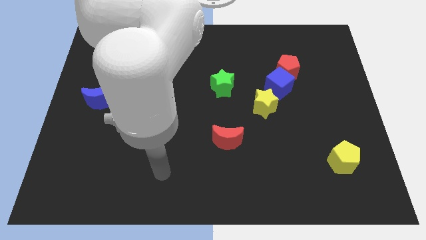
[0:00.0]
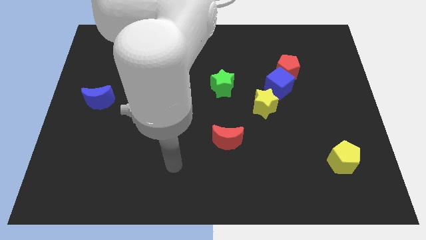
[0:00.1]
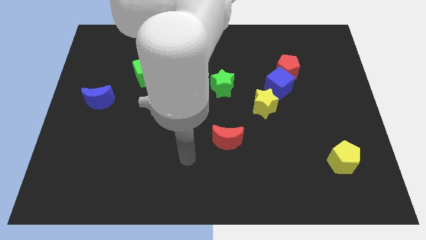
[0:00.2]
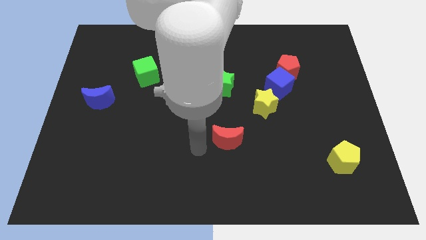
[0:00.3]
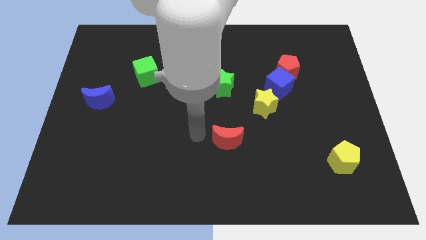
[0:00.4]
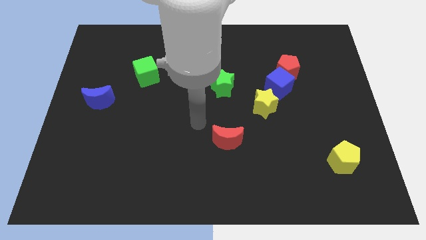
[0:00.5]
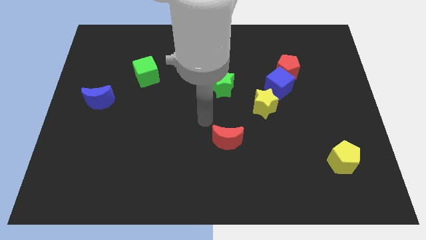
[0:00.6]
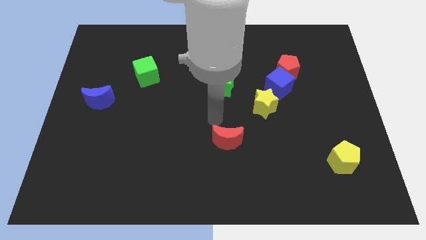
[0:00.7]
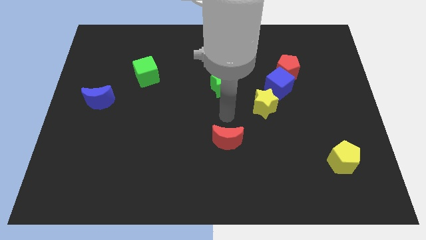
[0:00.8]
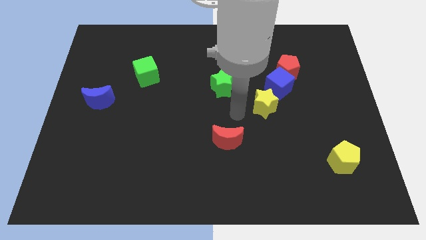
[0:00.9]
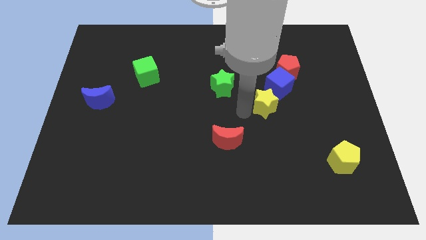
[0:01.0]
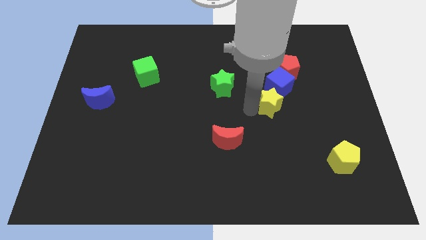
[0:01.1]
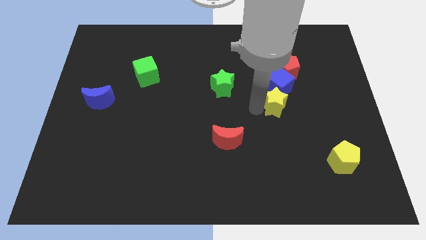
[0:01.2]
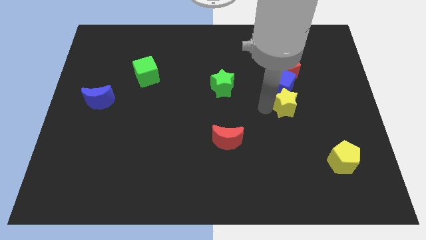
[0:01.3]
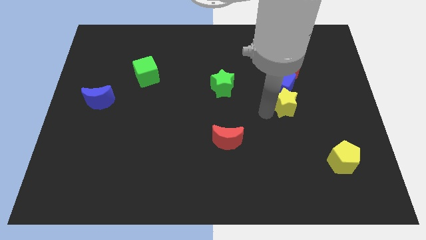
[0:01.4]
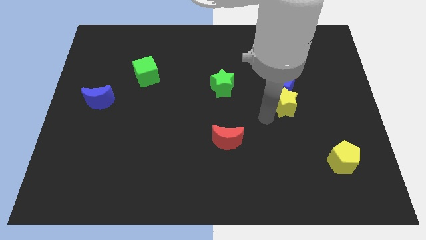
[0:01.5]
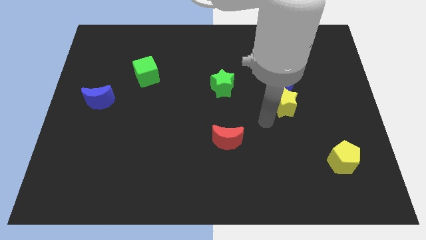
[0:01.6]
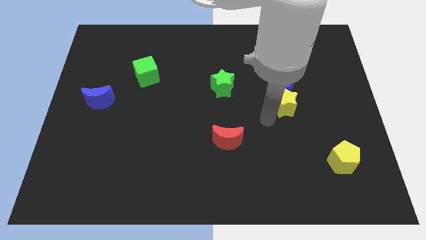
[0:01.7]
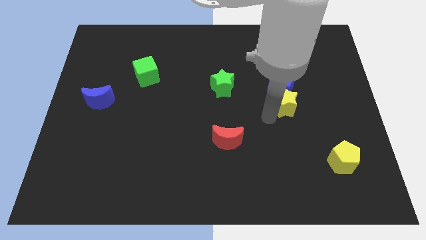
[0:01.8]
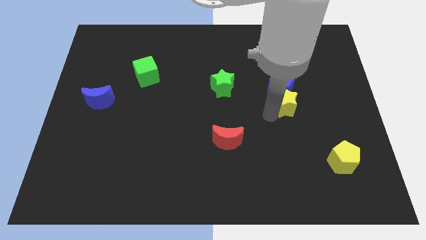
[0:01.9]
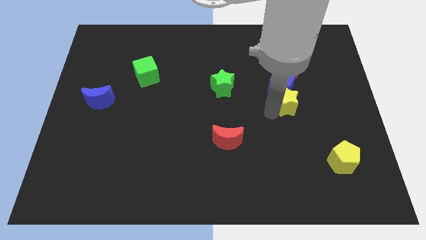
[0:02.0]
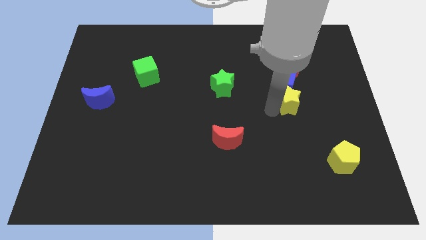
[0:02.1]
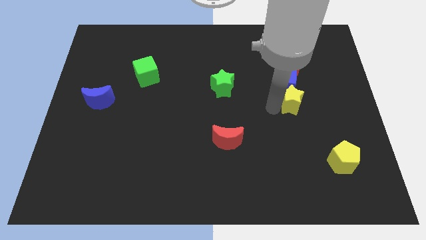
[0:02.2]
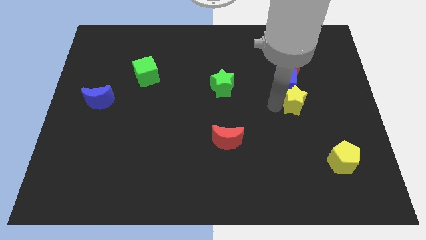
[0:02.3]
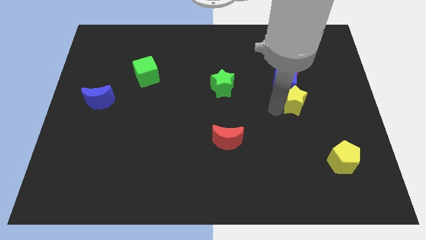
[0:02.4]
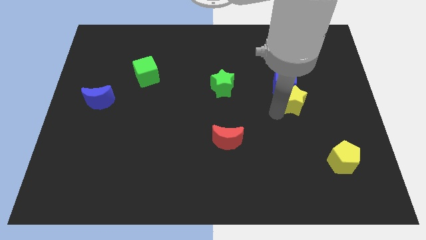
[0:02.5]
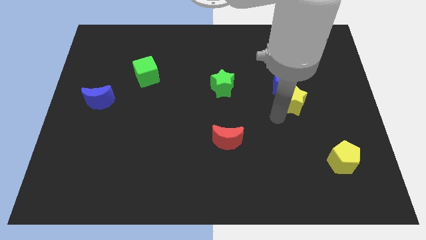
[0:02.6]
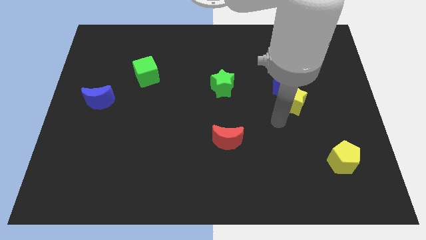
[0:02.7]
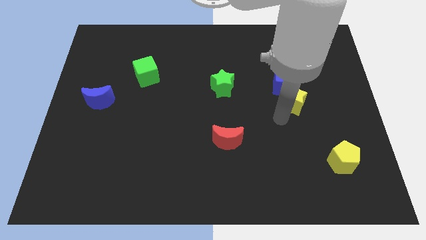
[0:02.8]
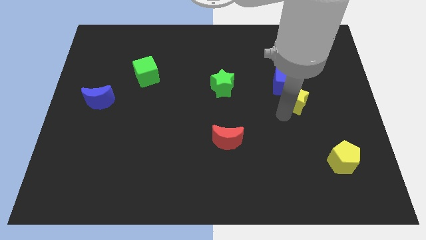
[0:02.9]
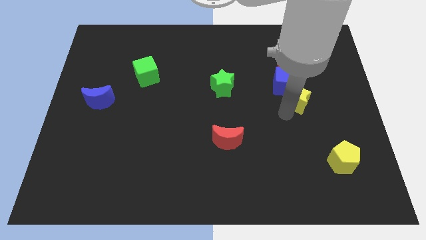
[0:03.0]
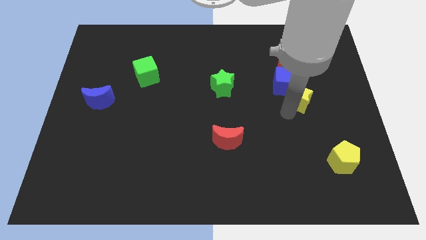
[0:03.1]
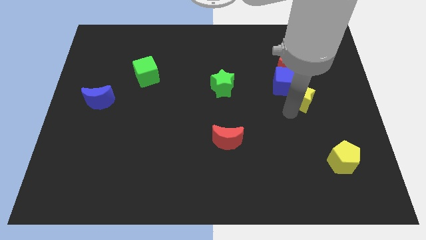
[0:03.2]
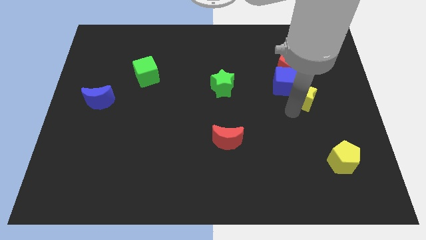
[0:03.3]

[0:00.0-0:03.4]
move the yellow star a bit diagonally up and right

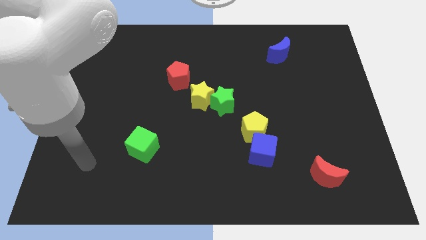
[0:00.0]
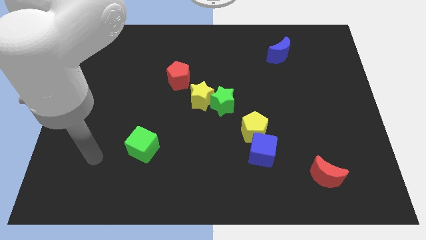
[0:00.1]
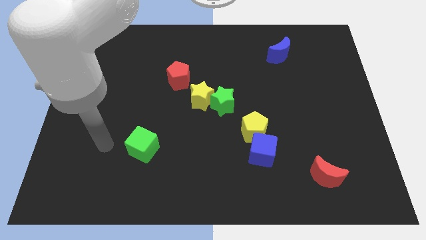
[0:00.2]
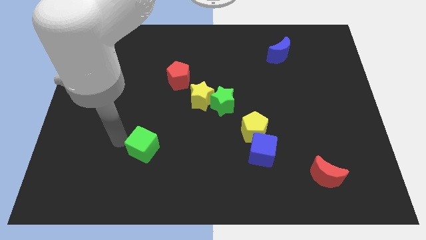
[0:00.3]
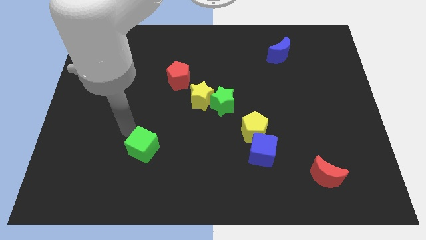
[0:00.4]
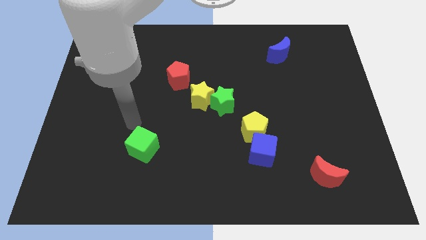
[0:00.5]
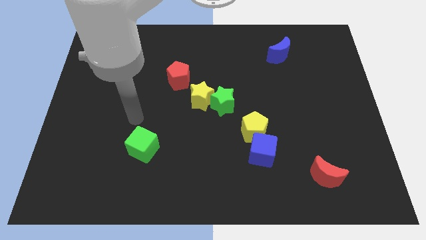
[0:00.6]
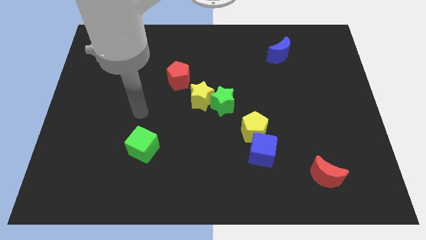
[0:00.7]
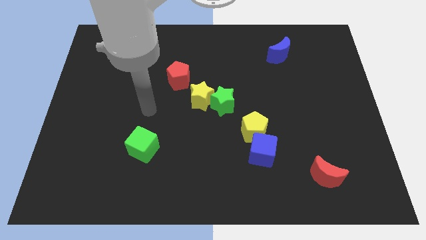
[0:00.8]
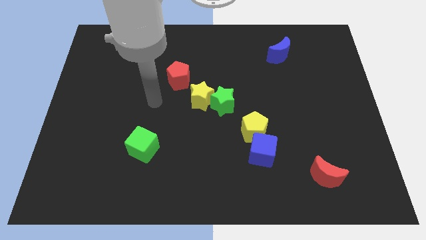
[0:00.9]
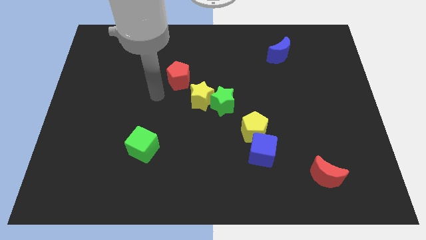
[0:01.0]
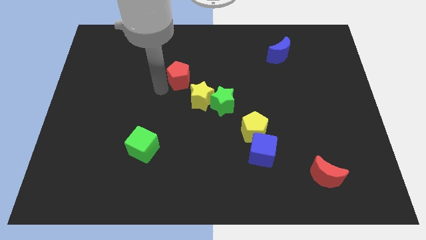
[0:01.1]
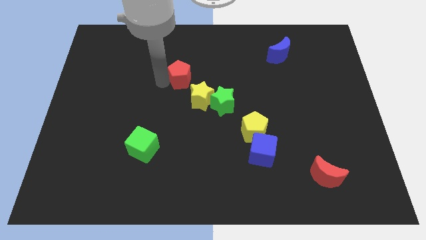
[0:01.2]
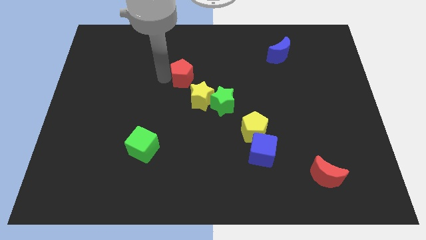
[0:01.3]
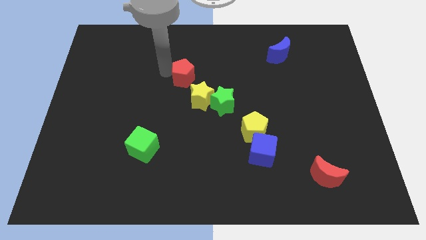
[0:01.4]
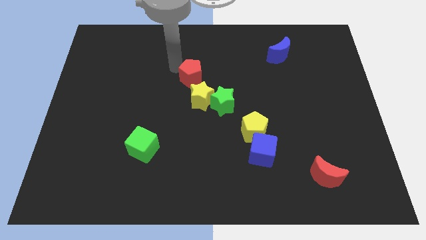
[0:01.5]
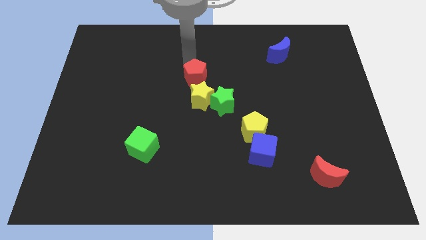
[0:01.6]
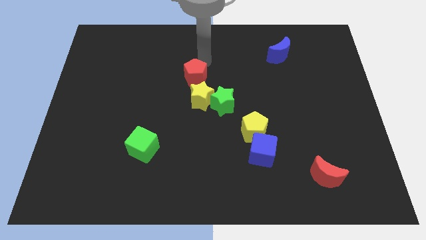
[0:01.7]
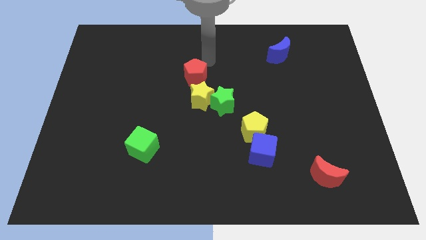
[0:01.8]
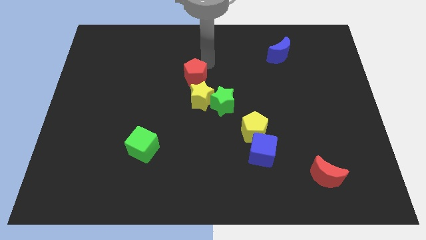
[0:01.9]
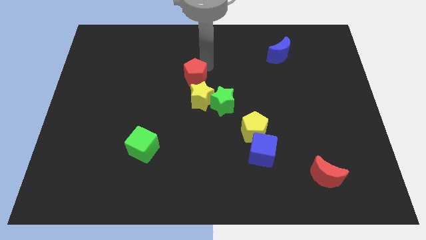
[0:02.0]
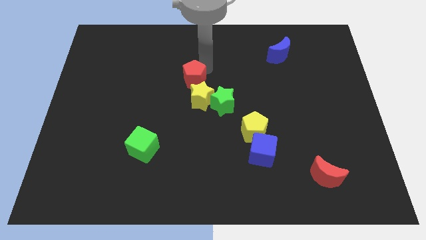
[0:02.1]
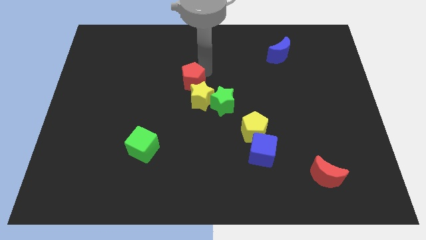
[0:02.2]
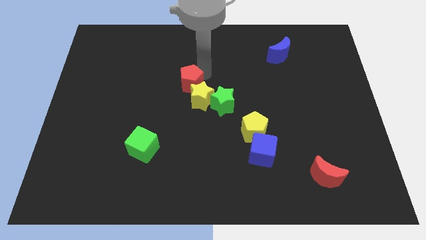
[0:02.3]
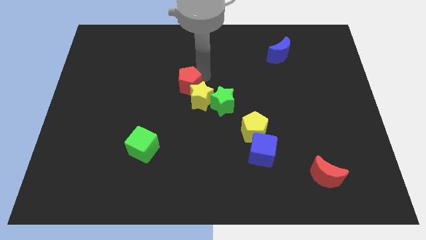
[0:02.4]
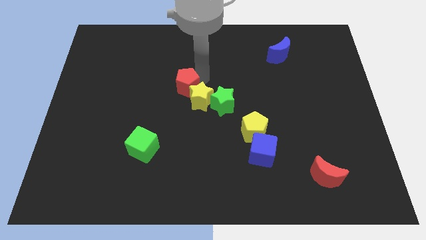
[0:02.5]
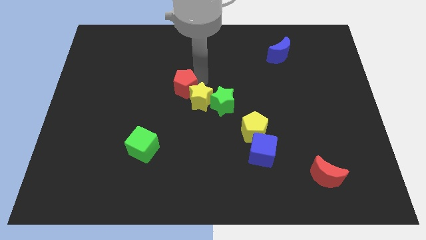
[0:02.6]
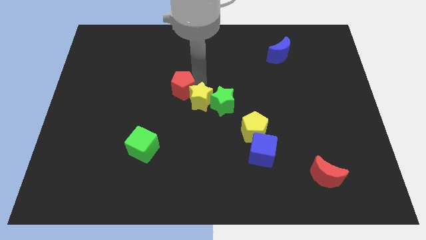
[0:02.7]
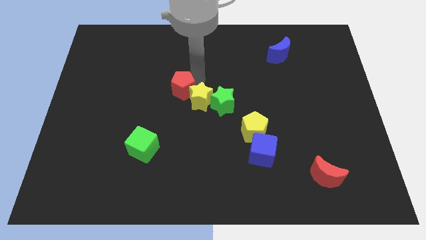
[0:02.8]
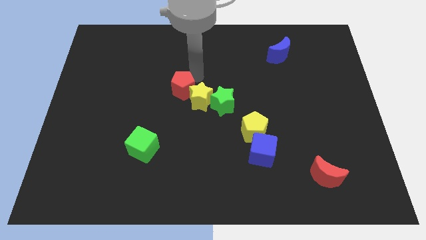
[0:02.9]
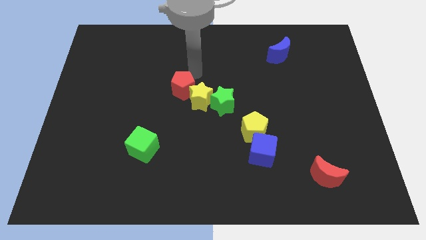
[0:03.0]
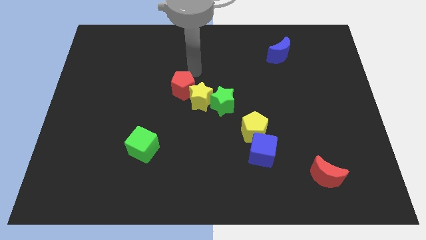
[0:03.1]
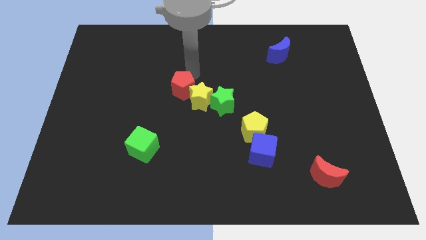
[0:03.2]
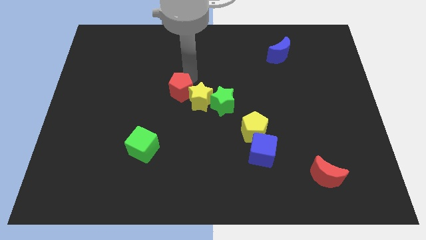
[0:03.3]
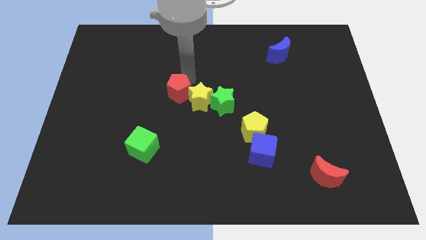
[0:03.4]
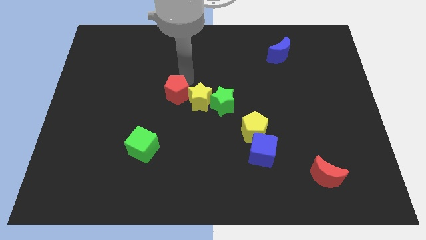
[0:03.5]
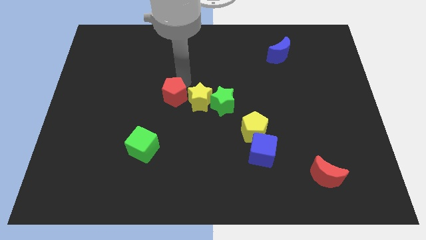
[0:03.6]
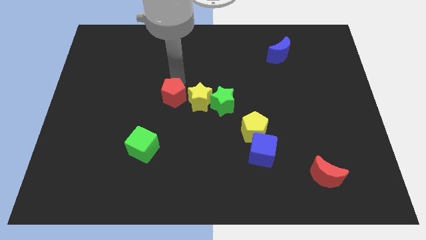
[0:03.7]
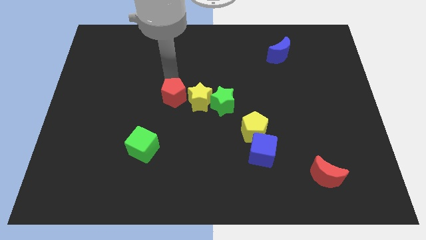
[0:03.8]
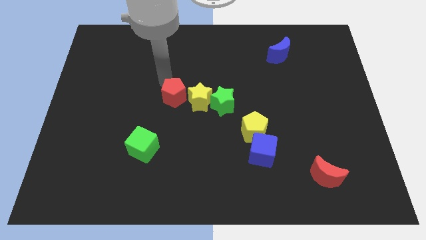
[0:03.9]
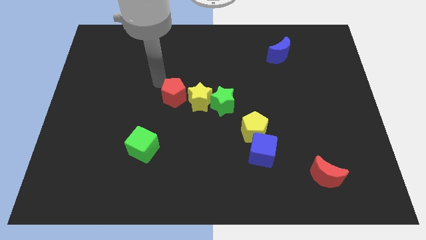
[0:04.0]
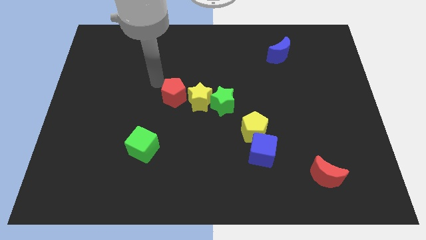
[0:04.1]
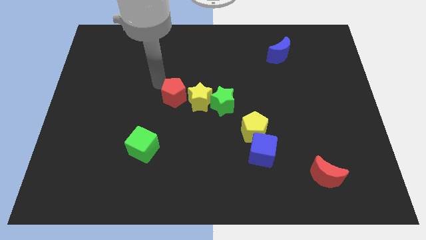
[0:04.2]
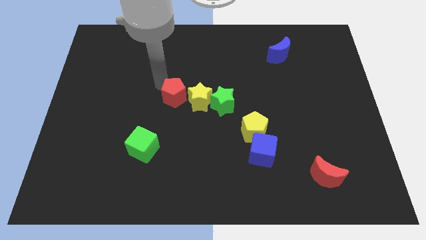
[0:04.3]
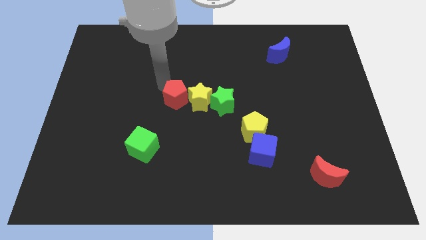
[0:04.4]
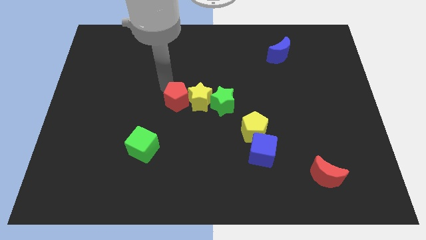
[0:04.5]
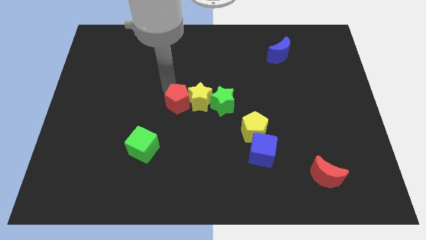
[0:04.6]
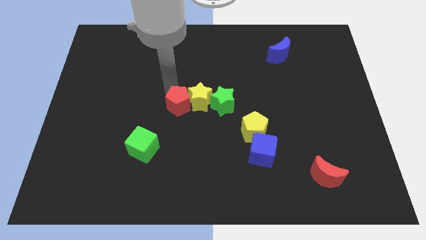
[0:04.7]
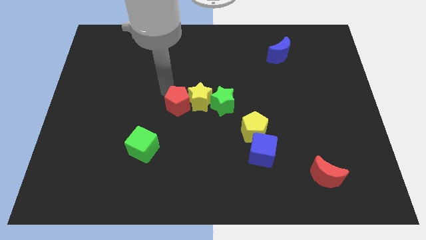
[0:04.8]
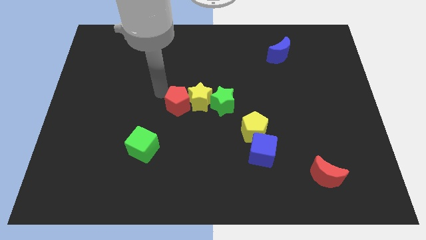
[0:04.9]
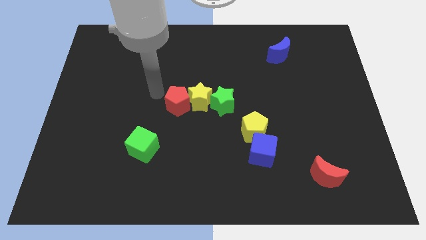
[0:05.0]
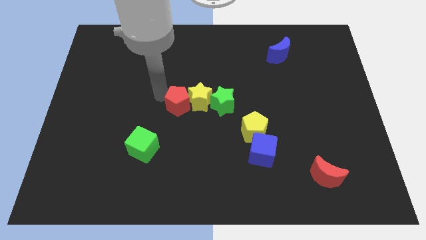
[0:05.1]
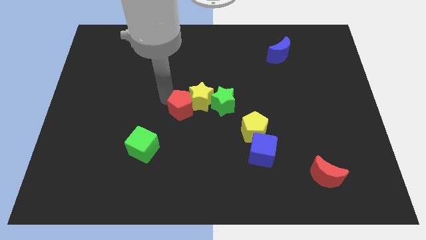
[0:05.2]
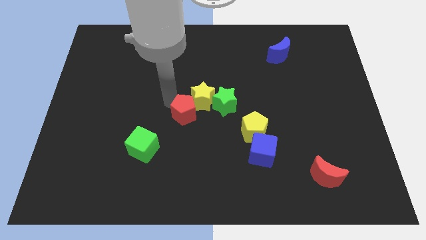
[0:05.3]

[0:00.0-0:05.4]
slide the red pentagon diagonally downwards and right a little bit
